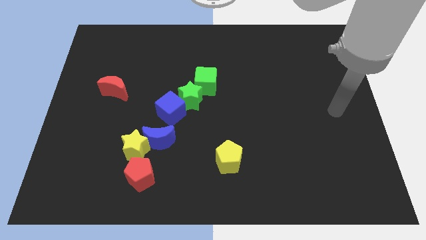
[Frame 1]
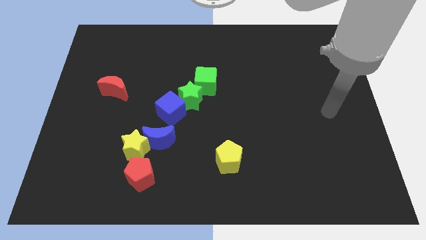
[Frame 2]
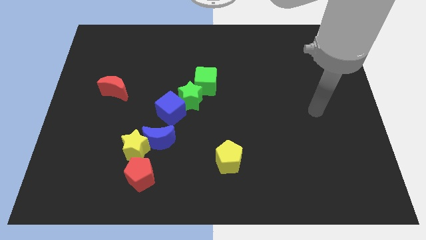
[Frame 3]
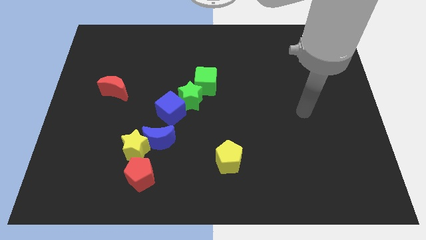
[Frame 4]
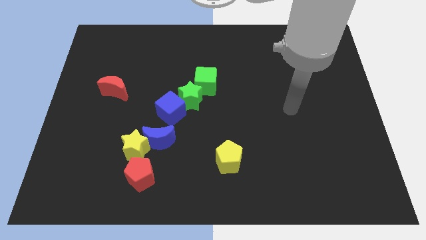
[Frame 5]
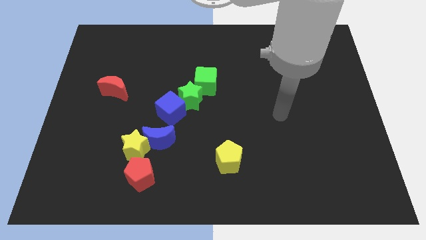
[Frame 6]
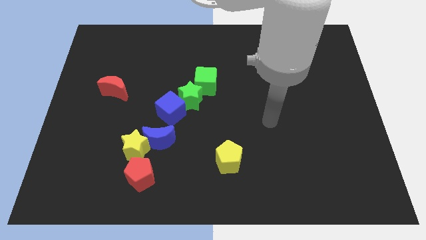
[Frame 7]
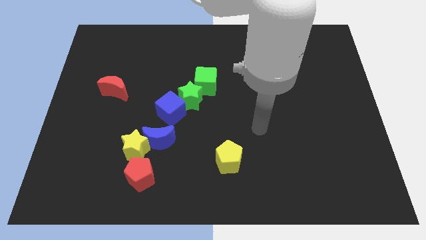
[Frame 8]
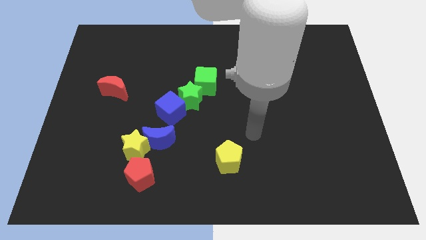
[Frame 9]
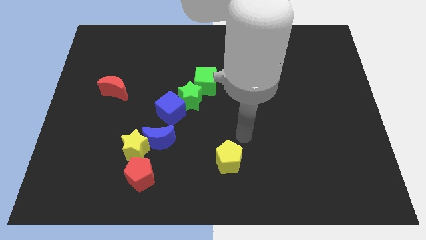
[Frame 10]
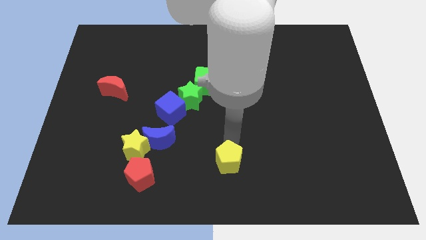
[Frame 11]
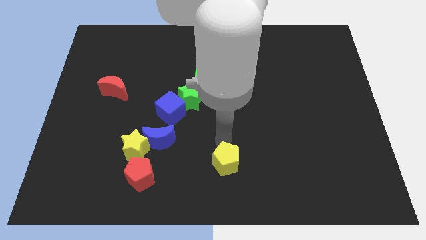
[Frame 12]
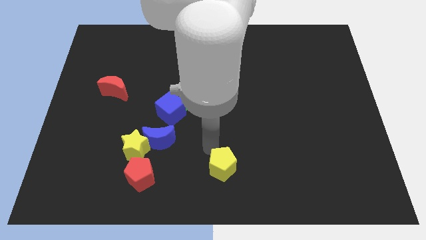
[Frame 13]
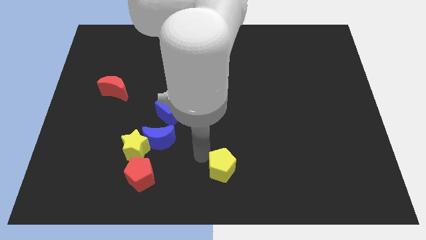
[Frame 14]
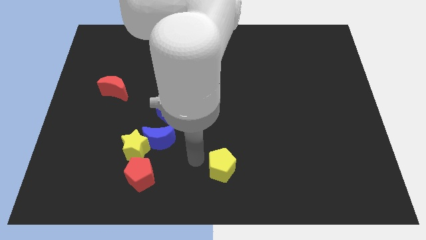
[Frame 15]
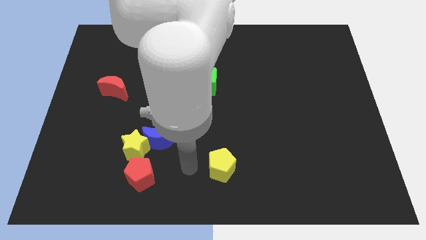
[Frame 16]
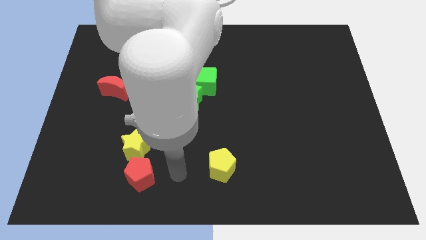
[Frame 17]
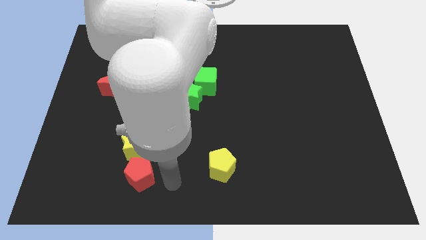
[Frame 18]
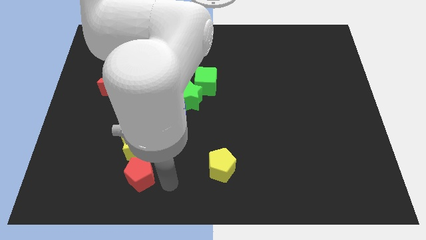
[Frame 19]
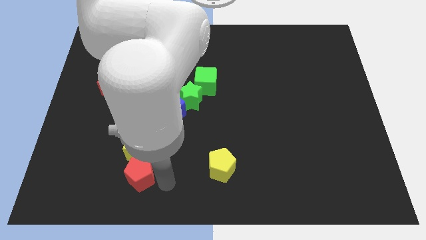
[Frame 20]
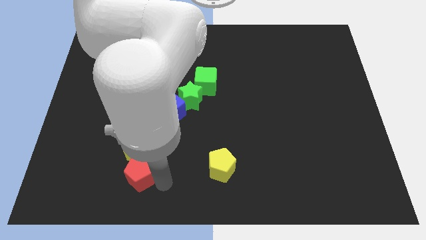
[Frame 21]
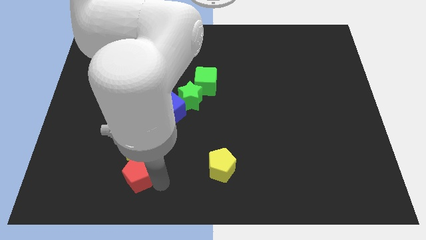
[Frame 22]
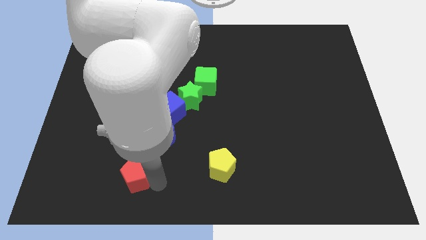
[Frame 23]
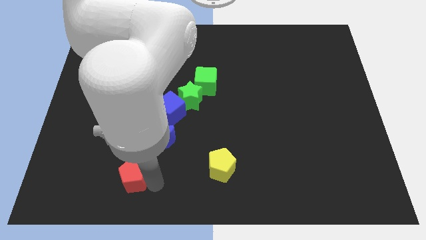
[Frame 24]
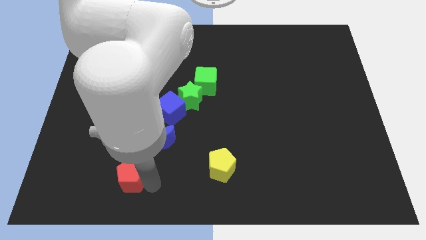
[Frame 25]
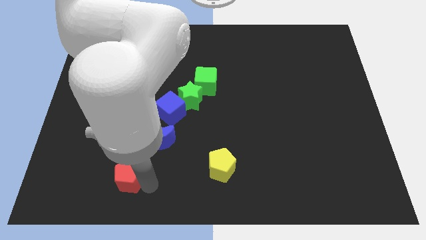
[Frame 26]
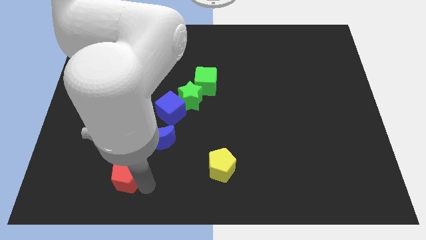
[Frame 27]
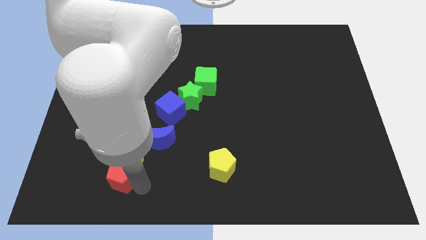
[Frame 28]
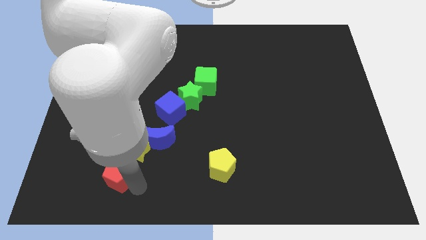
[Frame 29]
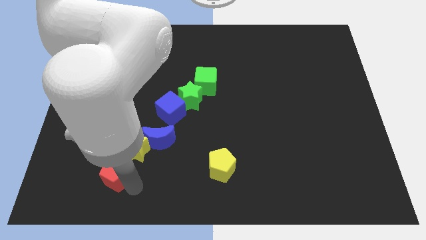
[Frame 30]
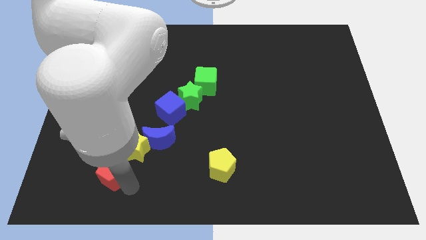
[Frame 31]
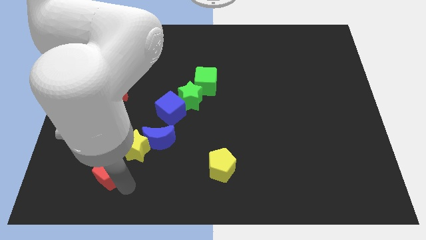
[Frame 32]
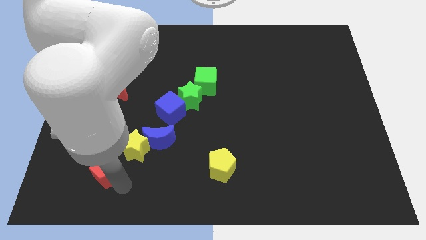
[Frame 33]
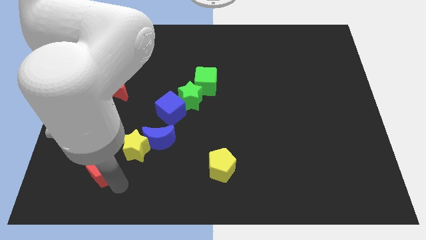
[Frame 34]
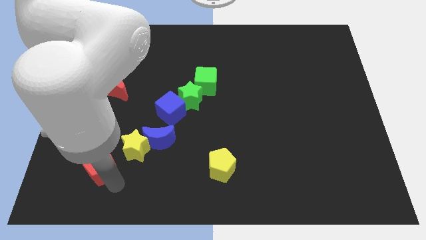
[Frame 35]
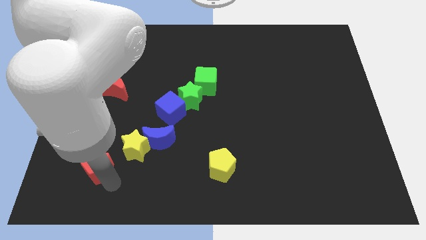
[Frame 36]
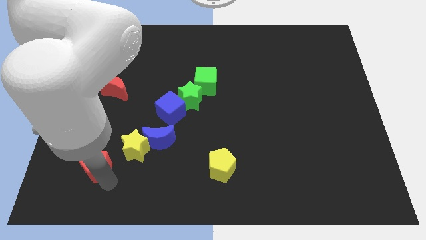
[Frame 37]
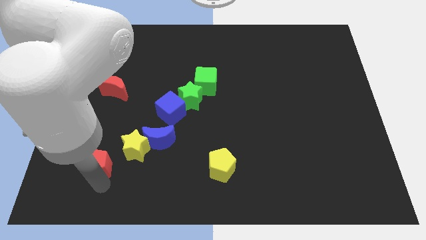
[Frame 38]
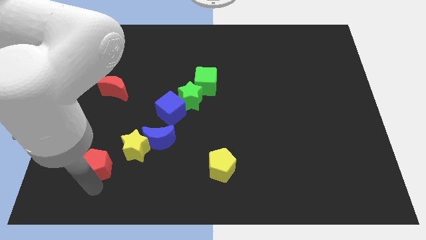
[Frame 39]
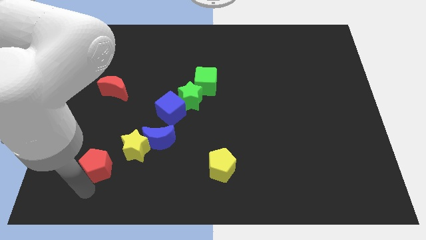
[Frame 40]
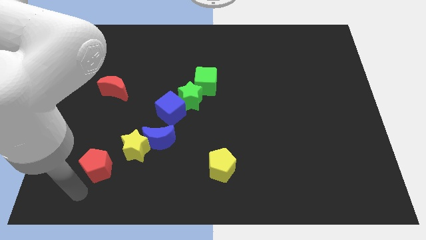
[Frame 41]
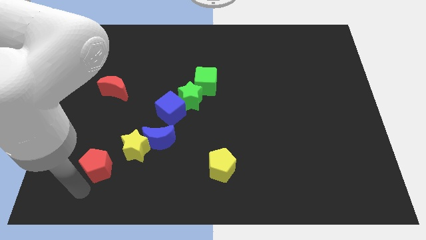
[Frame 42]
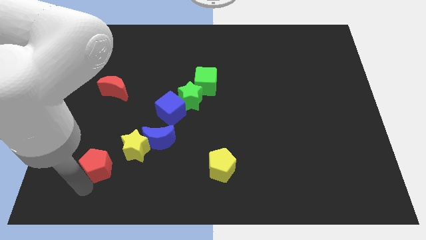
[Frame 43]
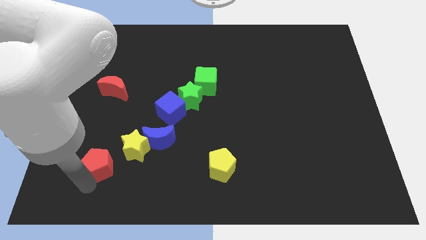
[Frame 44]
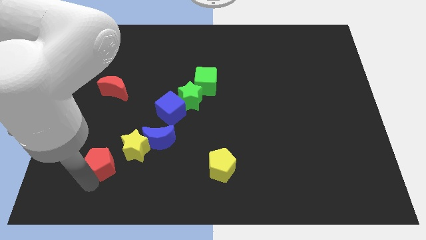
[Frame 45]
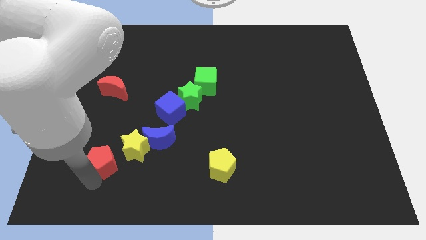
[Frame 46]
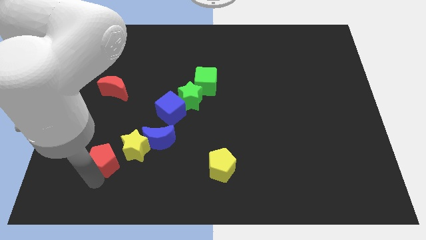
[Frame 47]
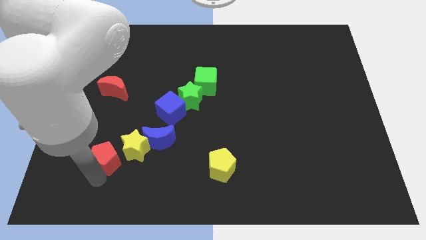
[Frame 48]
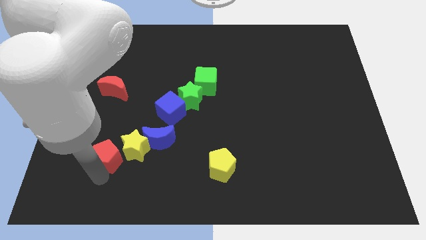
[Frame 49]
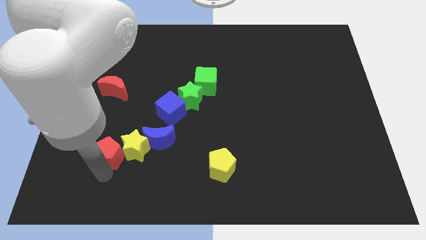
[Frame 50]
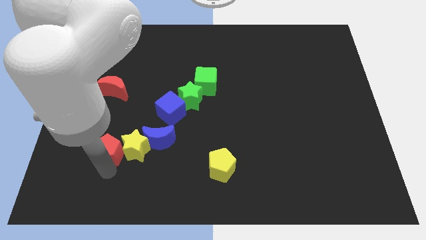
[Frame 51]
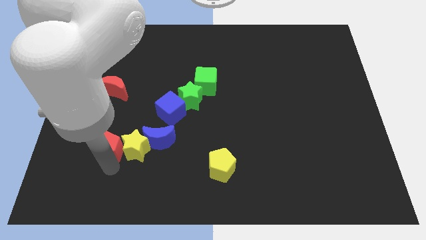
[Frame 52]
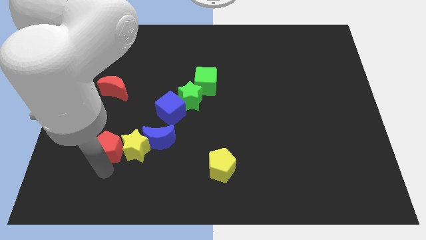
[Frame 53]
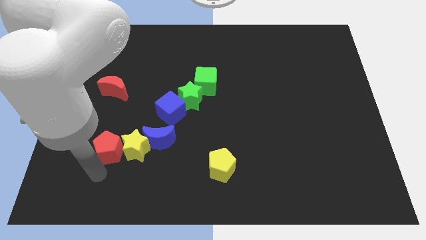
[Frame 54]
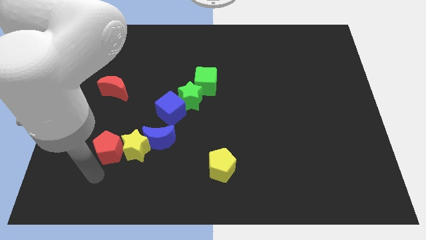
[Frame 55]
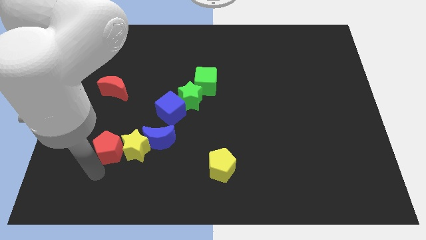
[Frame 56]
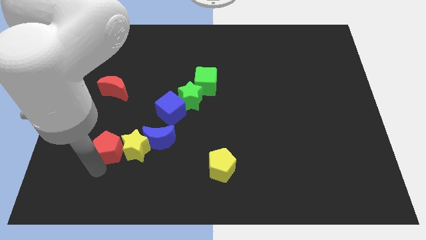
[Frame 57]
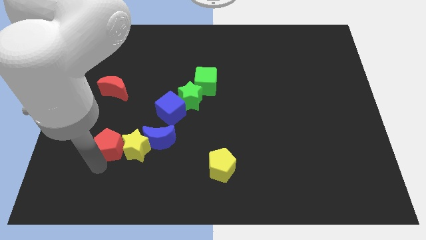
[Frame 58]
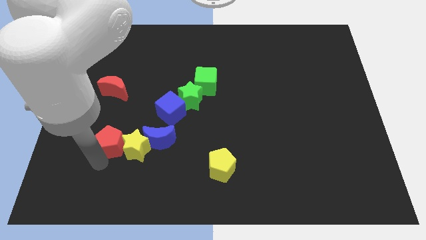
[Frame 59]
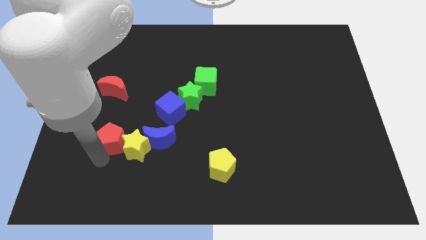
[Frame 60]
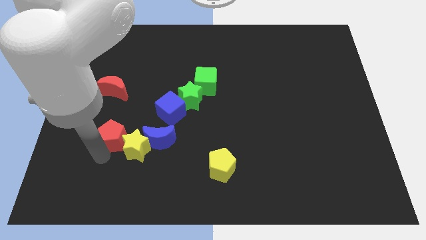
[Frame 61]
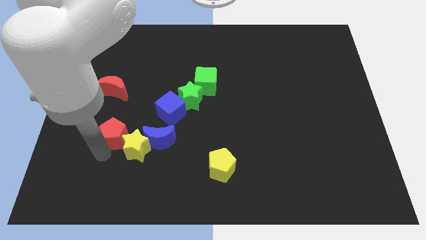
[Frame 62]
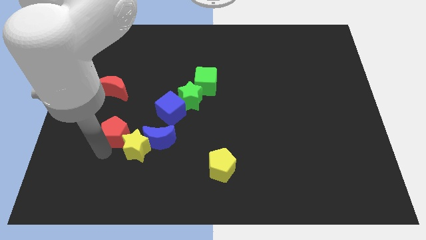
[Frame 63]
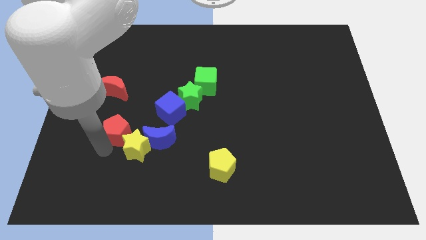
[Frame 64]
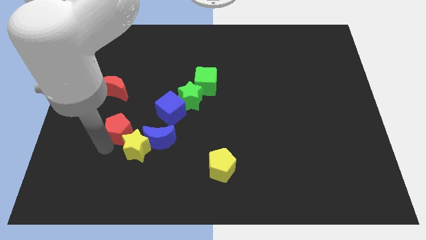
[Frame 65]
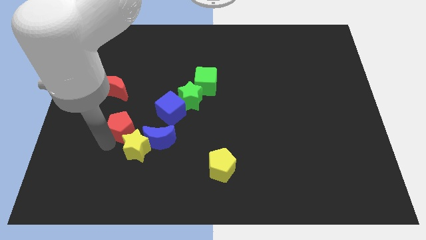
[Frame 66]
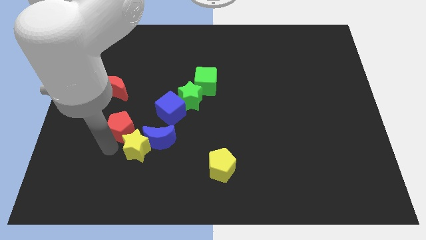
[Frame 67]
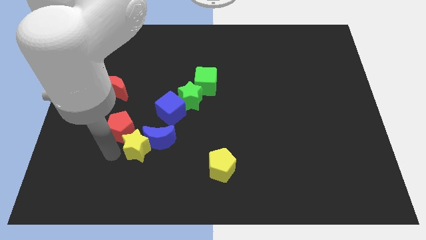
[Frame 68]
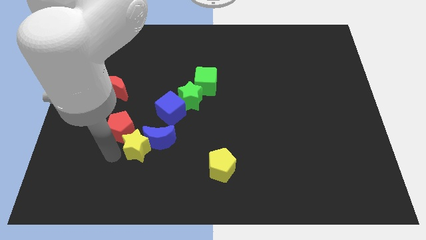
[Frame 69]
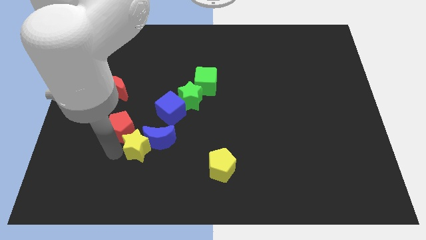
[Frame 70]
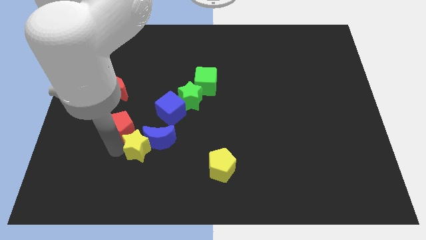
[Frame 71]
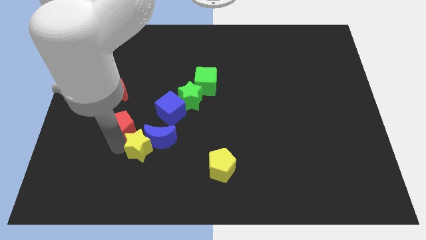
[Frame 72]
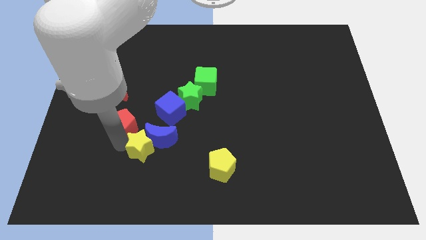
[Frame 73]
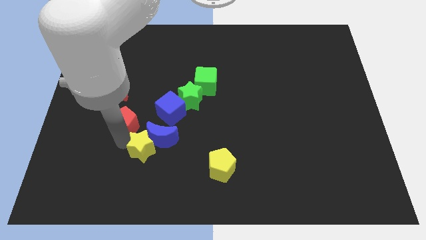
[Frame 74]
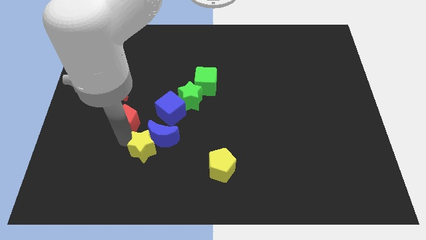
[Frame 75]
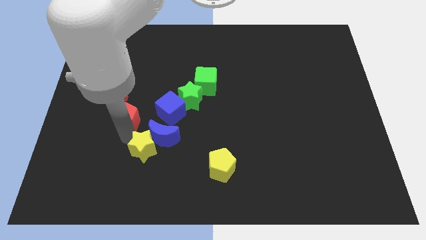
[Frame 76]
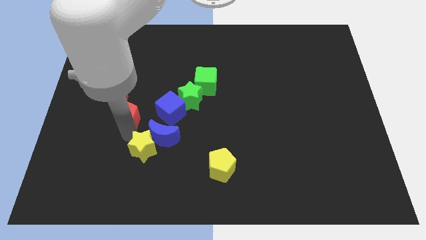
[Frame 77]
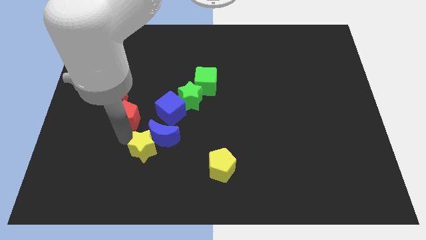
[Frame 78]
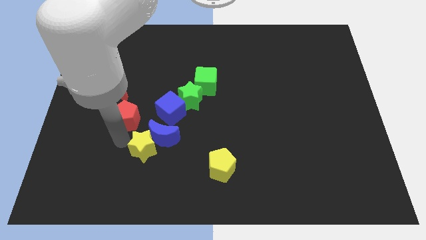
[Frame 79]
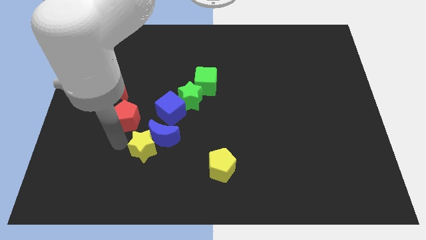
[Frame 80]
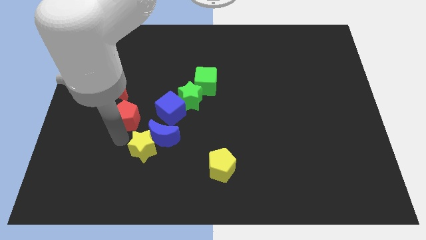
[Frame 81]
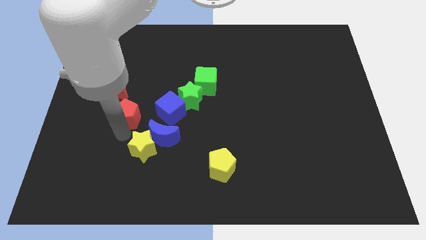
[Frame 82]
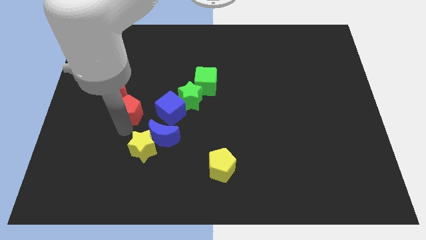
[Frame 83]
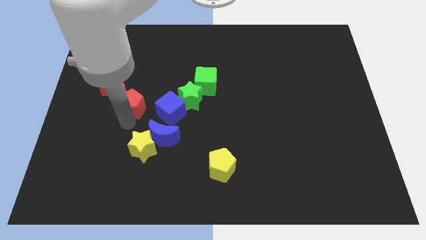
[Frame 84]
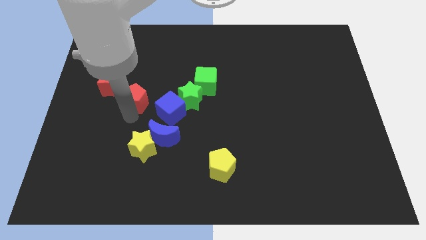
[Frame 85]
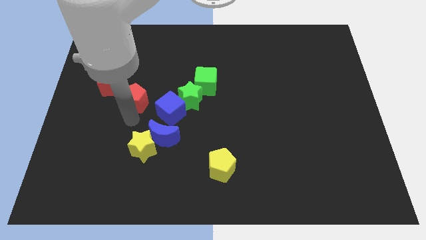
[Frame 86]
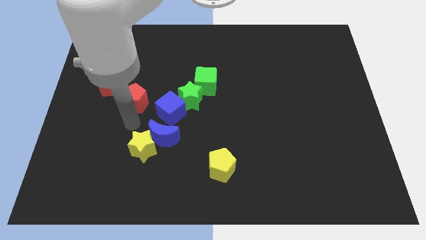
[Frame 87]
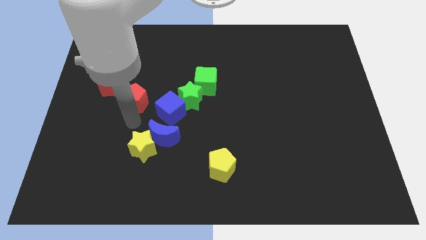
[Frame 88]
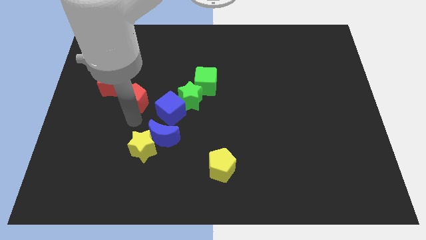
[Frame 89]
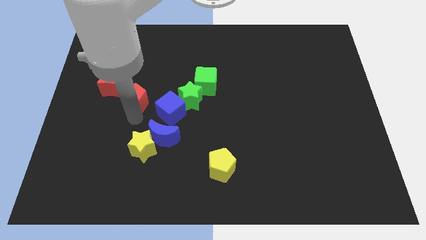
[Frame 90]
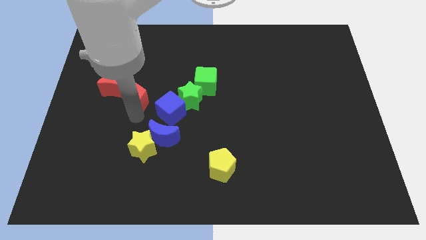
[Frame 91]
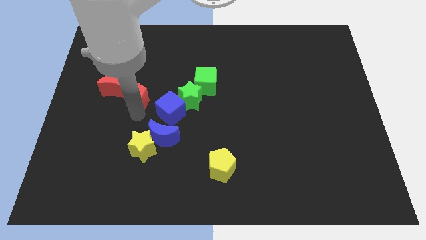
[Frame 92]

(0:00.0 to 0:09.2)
slide the red pentagon upwards
